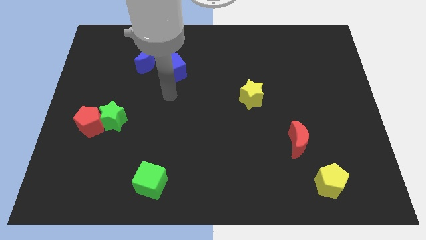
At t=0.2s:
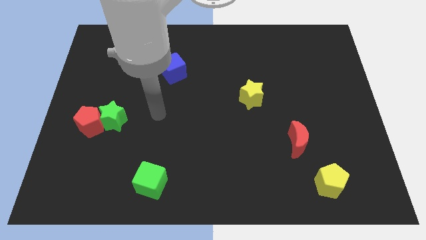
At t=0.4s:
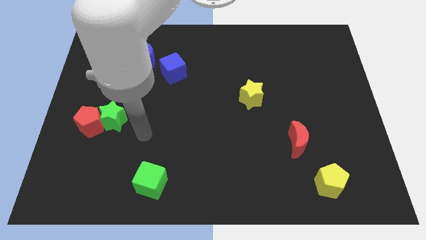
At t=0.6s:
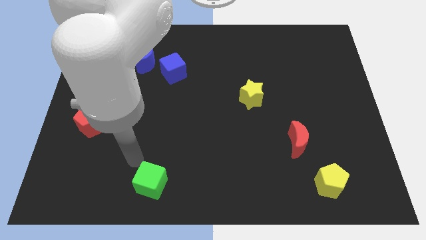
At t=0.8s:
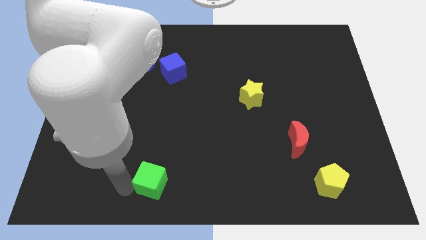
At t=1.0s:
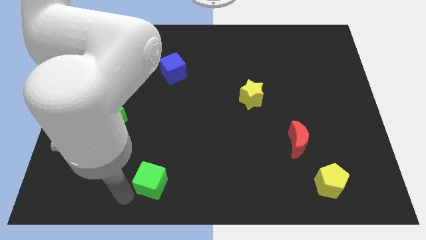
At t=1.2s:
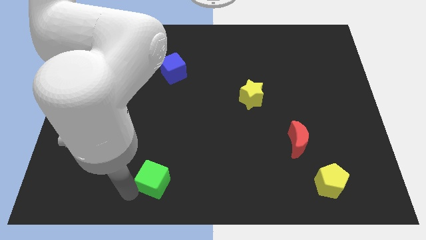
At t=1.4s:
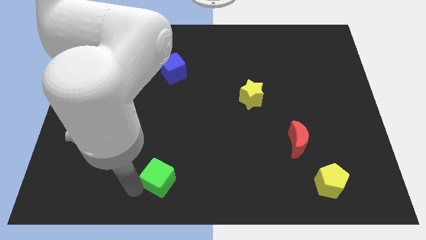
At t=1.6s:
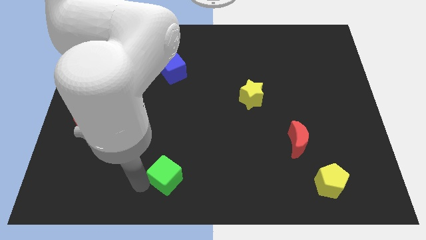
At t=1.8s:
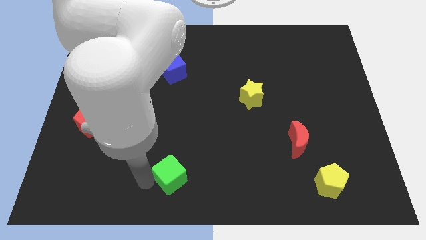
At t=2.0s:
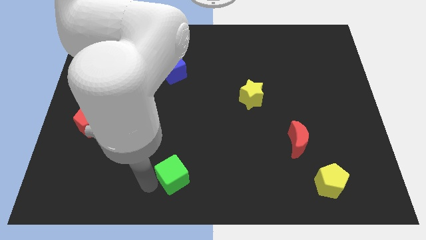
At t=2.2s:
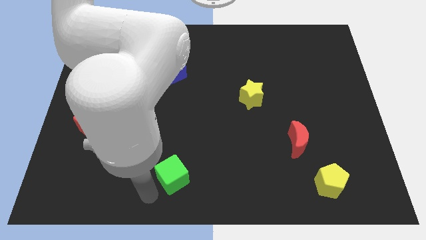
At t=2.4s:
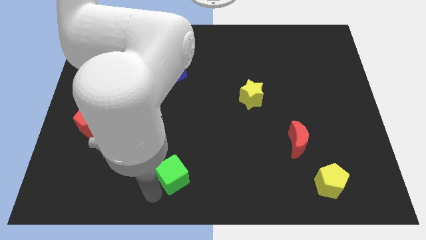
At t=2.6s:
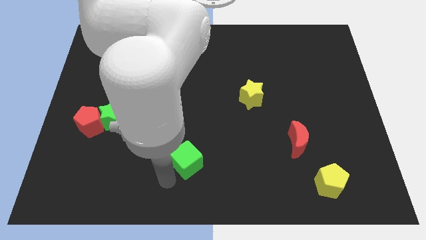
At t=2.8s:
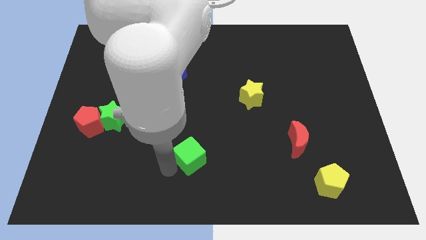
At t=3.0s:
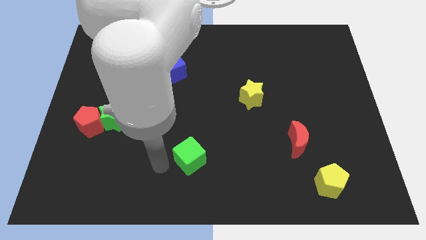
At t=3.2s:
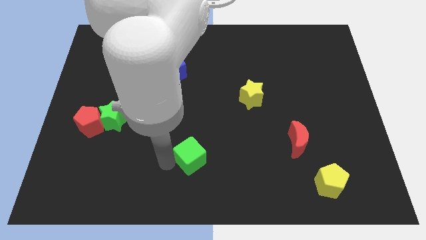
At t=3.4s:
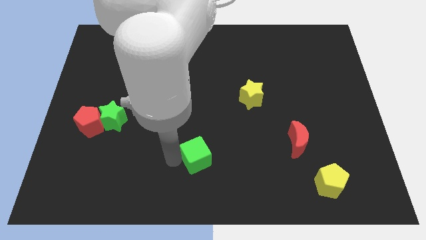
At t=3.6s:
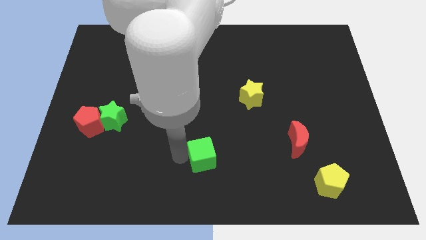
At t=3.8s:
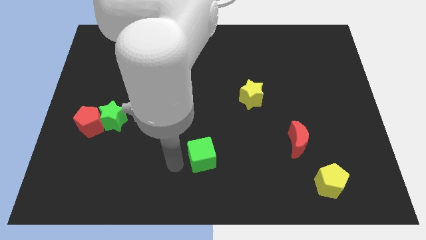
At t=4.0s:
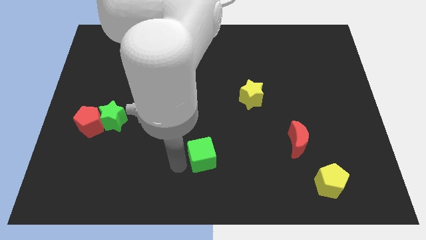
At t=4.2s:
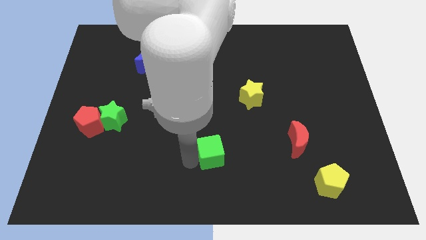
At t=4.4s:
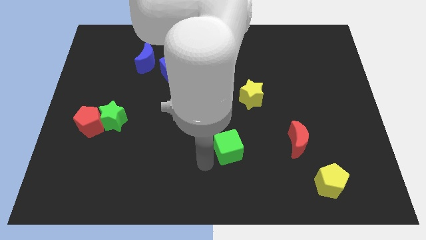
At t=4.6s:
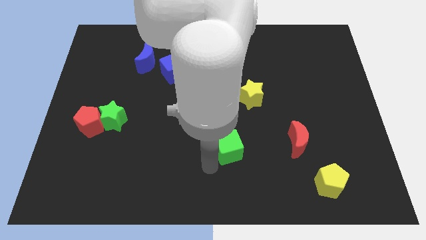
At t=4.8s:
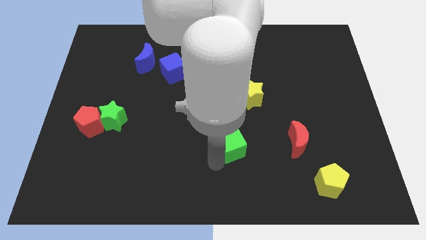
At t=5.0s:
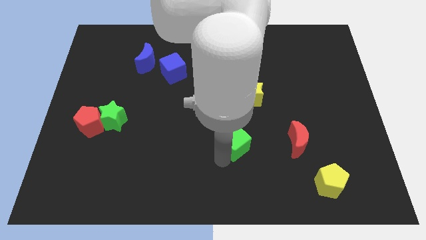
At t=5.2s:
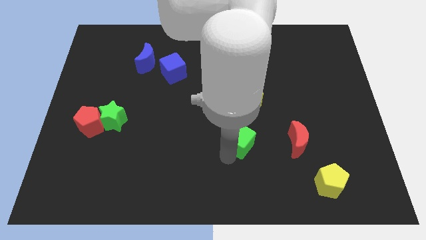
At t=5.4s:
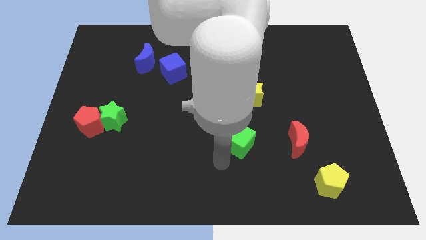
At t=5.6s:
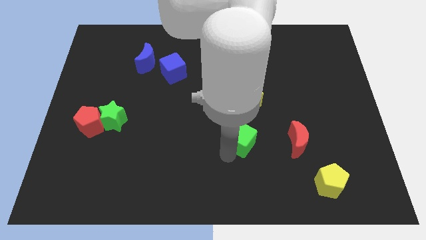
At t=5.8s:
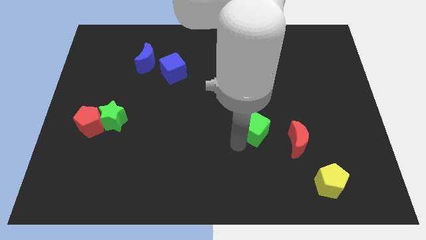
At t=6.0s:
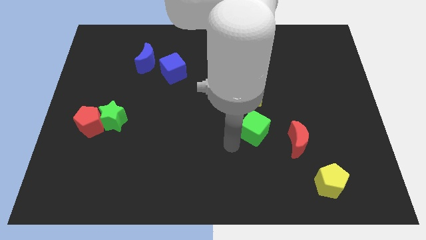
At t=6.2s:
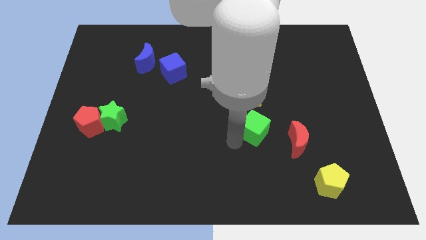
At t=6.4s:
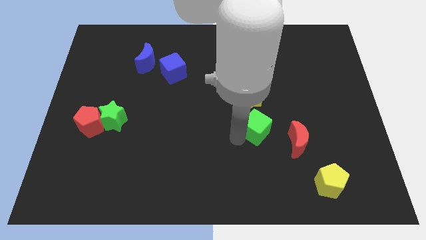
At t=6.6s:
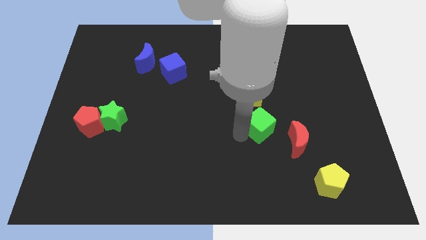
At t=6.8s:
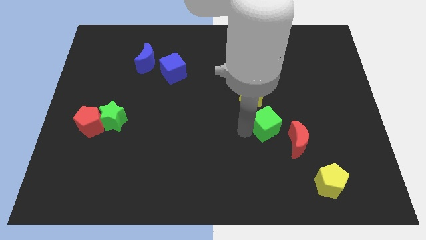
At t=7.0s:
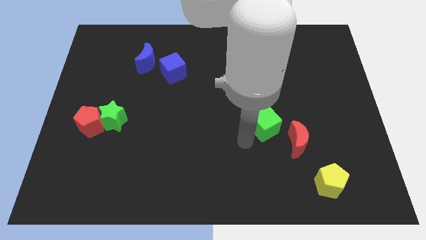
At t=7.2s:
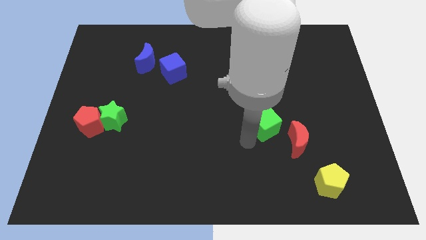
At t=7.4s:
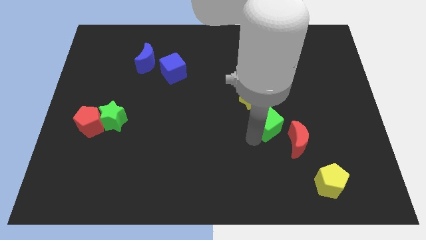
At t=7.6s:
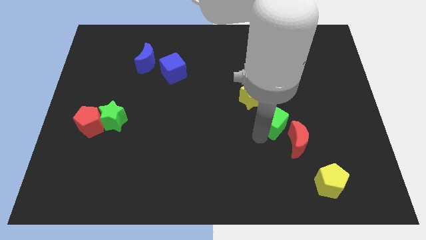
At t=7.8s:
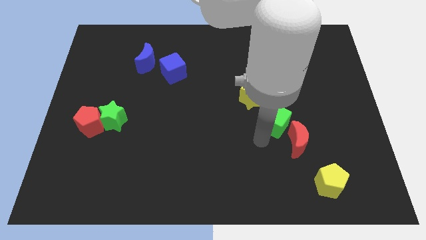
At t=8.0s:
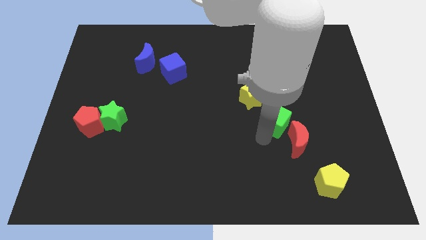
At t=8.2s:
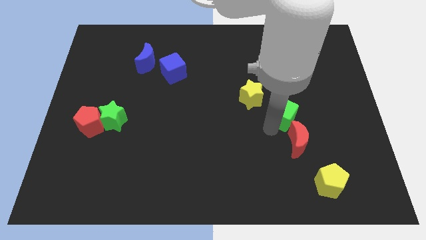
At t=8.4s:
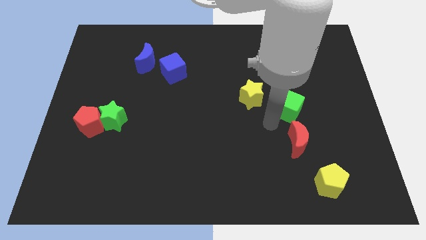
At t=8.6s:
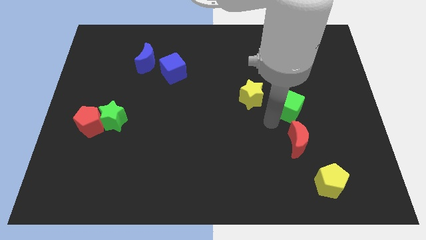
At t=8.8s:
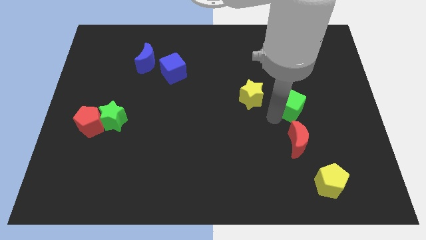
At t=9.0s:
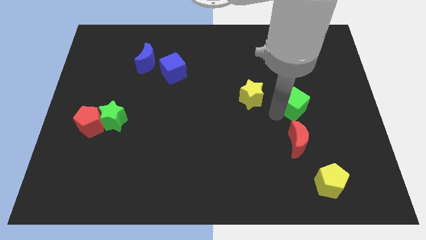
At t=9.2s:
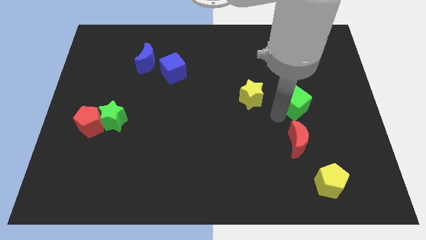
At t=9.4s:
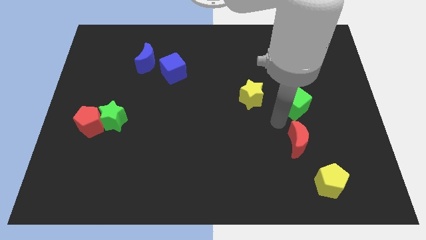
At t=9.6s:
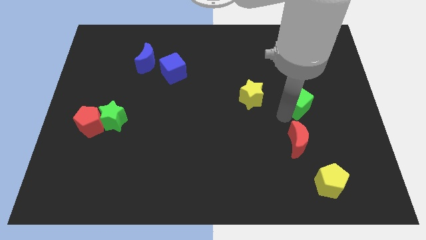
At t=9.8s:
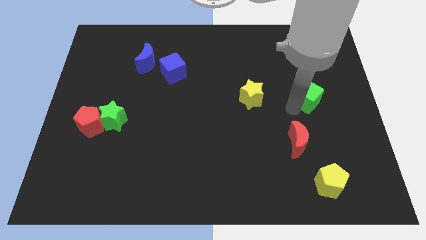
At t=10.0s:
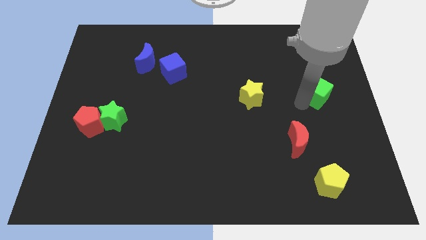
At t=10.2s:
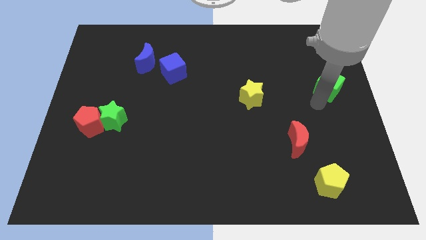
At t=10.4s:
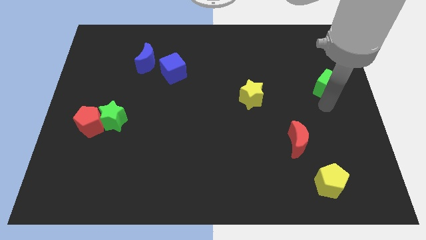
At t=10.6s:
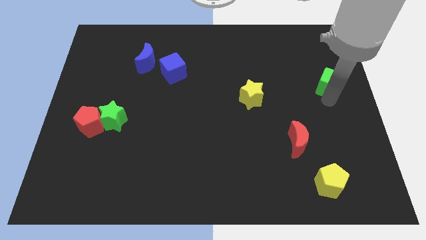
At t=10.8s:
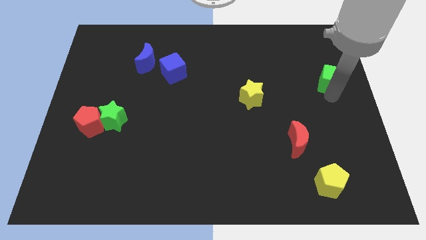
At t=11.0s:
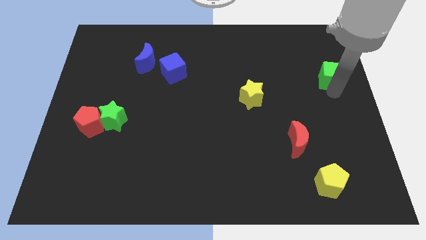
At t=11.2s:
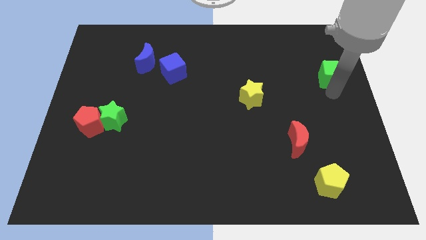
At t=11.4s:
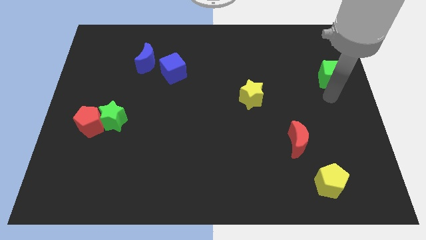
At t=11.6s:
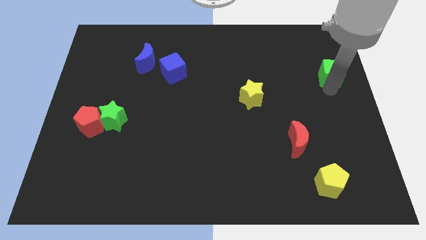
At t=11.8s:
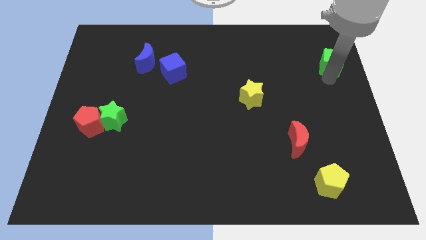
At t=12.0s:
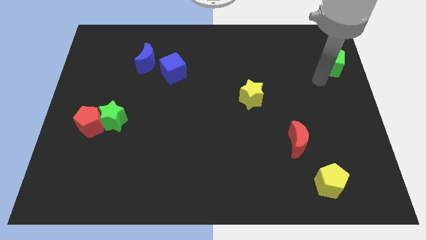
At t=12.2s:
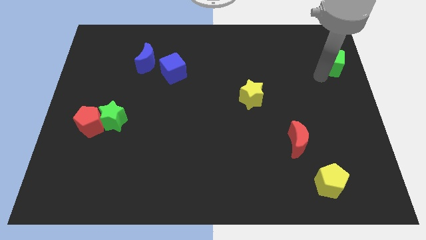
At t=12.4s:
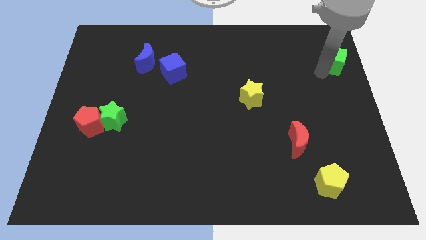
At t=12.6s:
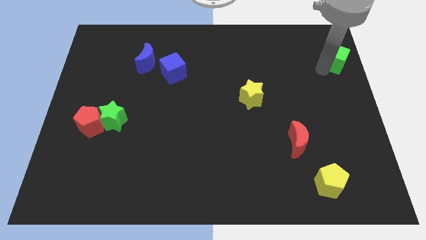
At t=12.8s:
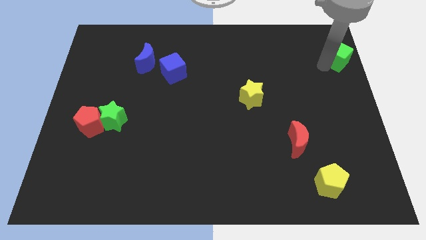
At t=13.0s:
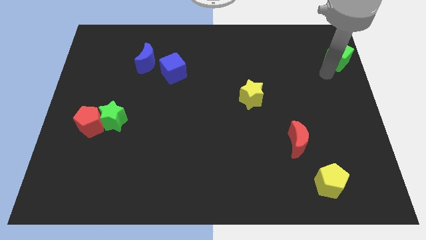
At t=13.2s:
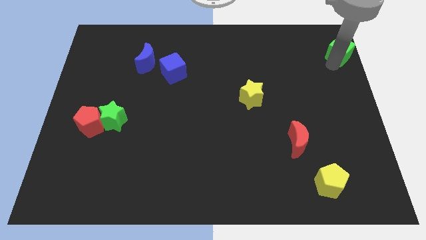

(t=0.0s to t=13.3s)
put the green cube to the top right of the board

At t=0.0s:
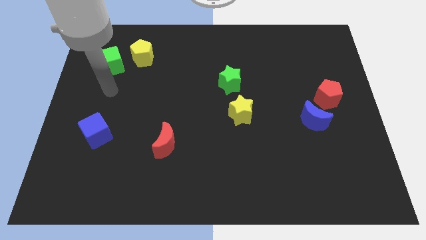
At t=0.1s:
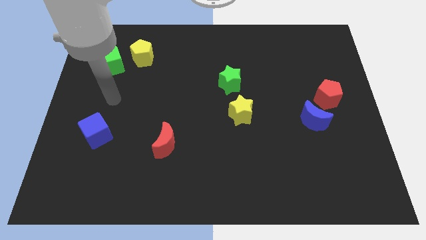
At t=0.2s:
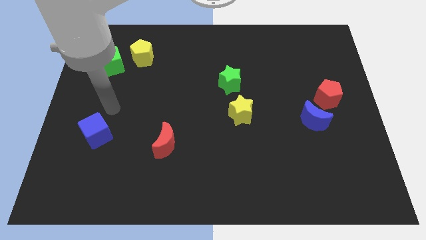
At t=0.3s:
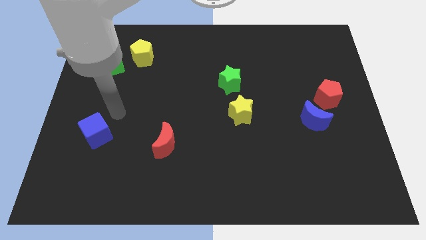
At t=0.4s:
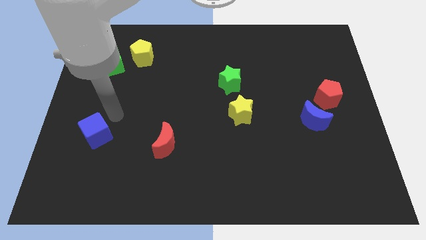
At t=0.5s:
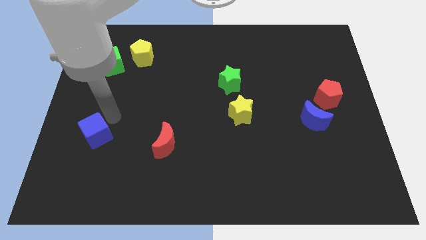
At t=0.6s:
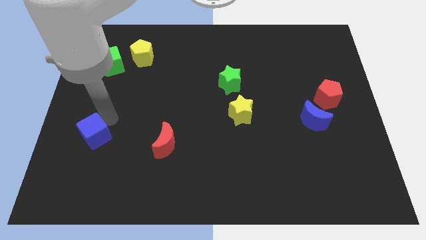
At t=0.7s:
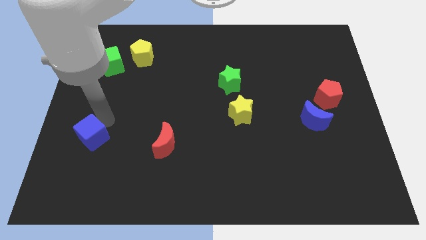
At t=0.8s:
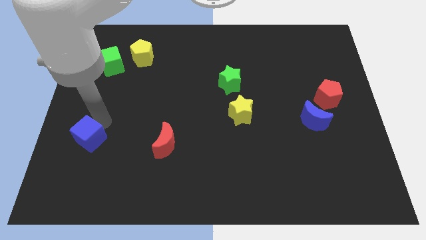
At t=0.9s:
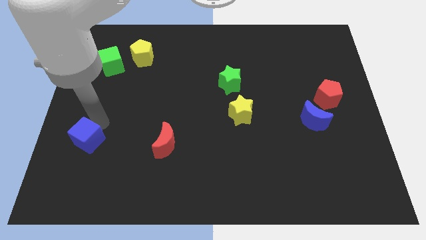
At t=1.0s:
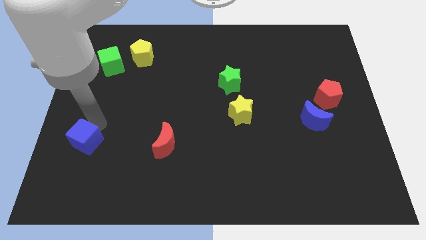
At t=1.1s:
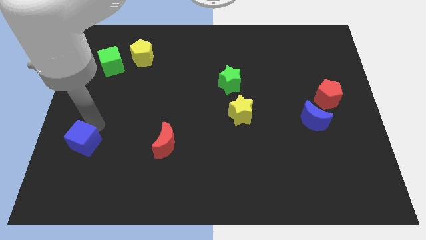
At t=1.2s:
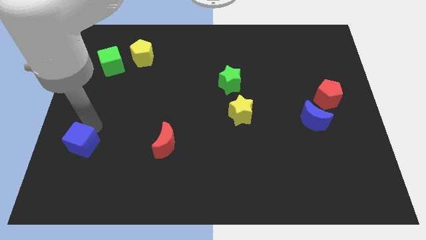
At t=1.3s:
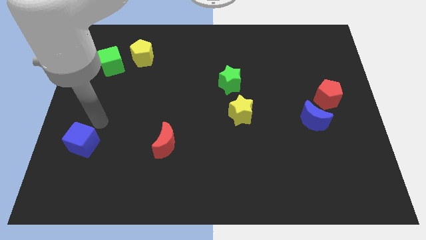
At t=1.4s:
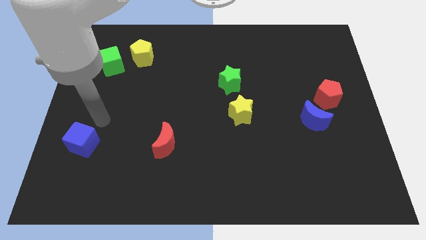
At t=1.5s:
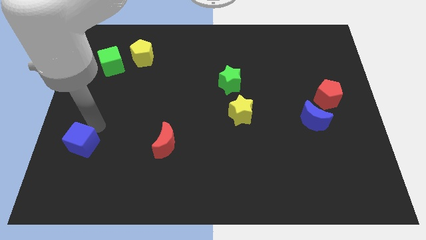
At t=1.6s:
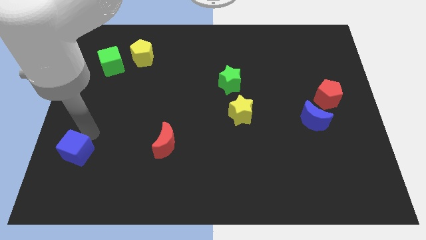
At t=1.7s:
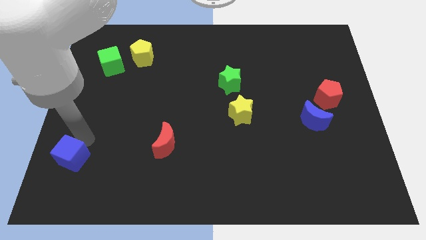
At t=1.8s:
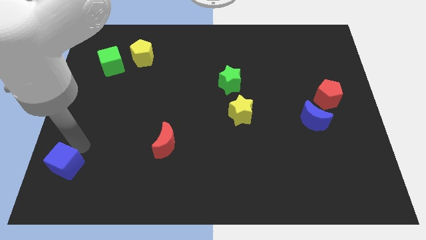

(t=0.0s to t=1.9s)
slide the blue cube to the lower left corner
